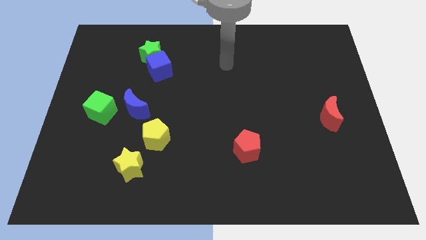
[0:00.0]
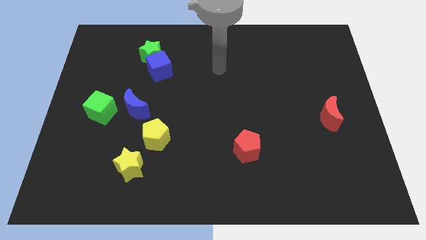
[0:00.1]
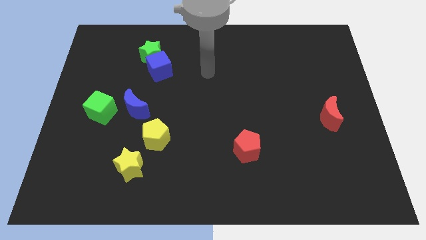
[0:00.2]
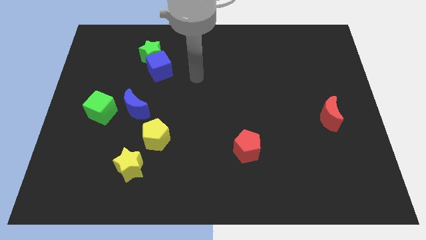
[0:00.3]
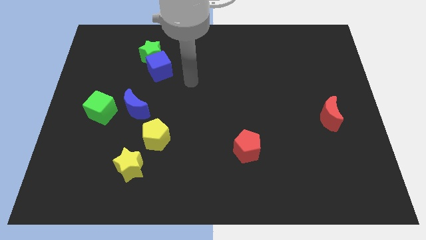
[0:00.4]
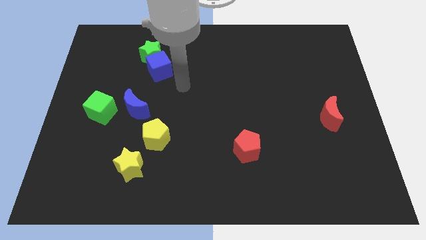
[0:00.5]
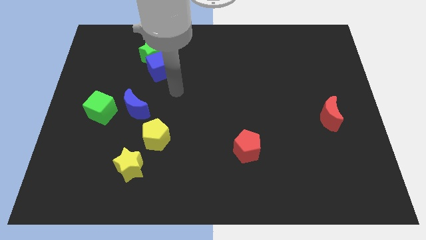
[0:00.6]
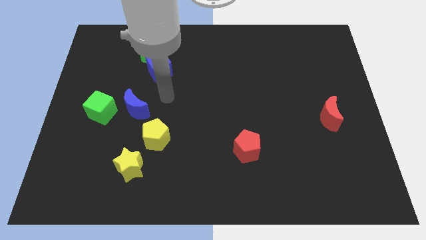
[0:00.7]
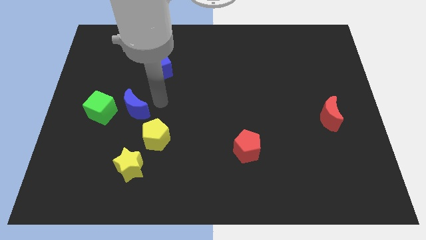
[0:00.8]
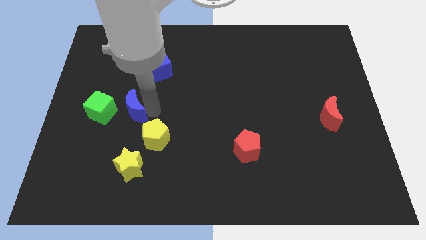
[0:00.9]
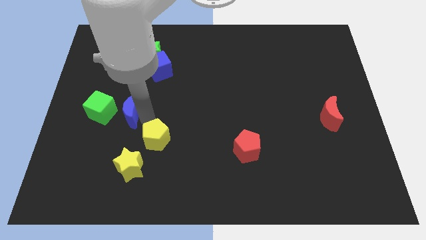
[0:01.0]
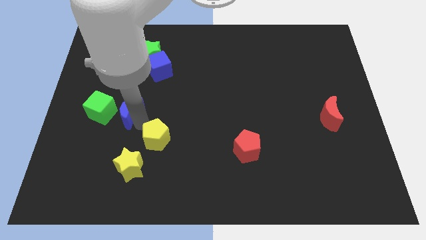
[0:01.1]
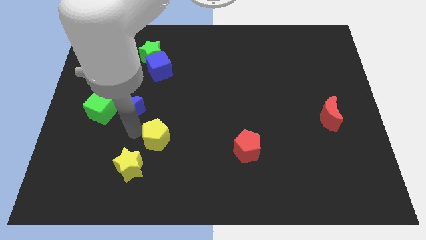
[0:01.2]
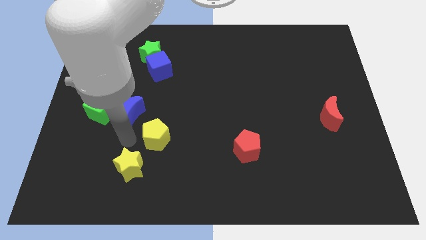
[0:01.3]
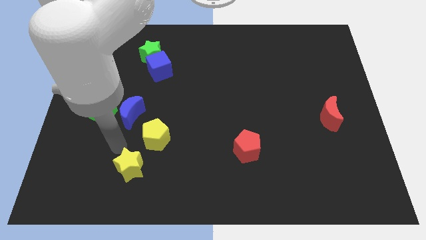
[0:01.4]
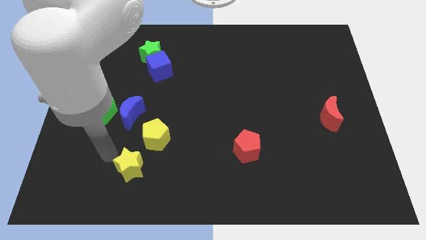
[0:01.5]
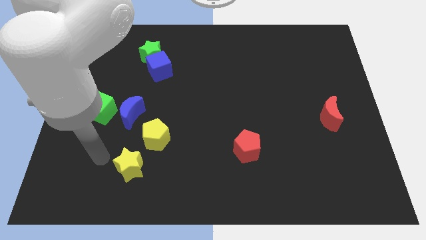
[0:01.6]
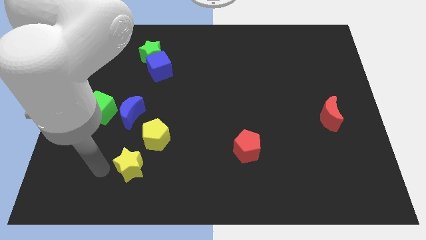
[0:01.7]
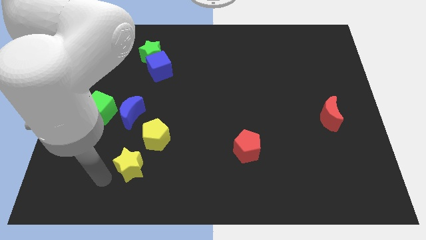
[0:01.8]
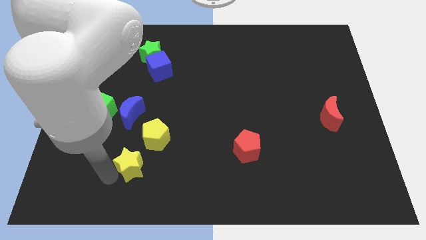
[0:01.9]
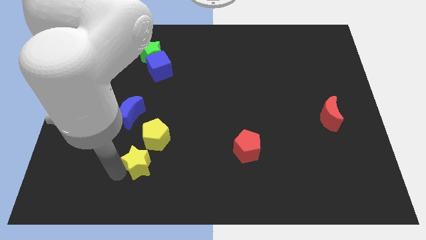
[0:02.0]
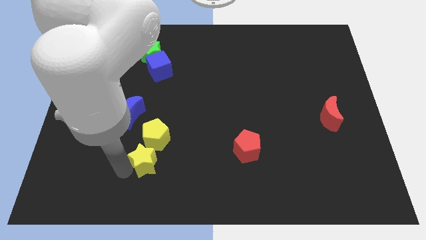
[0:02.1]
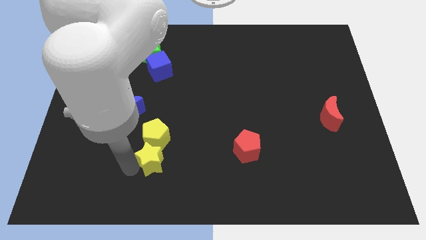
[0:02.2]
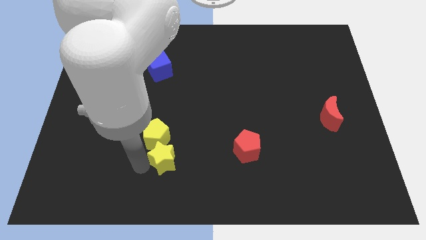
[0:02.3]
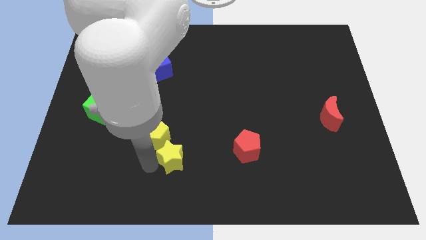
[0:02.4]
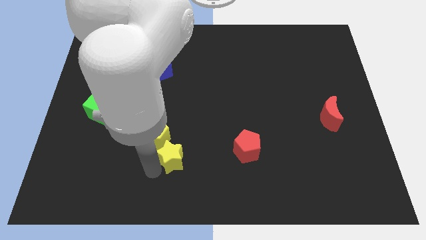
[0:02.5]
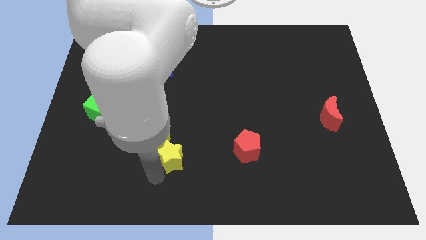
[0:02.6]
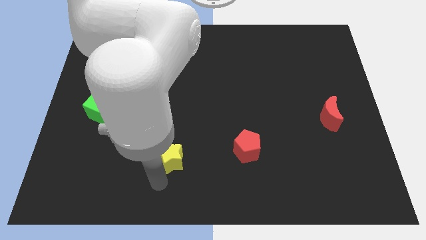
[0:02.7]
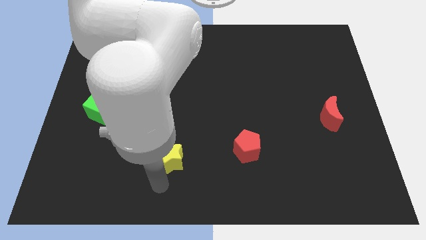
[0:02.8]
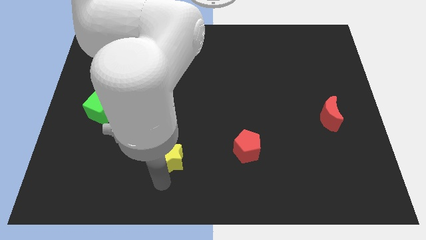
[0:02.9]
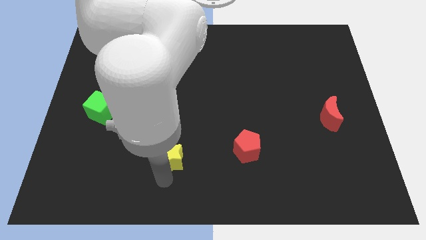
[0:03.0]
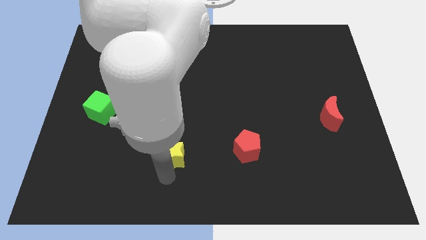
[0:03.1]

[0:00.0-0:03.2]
move the yellow star upwards and to the right diagonally a little

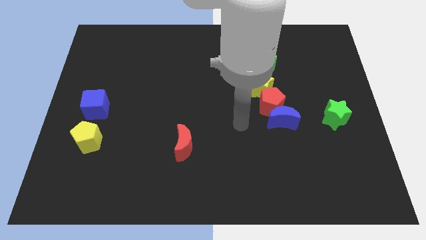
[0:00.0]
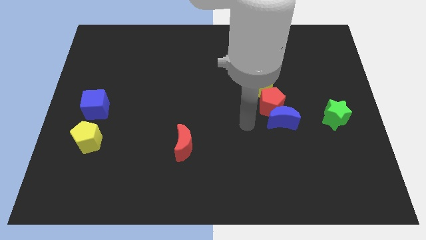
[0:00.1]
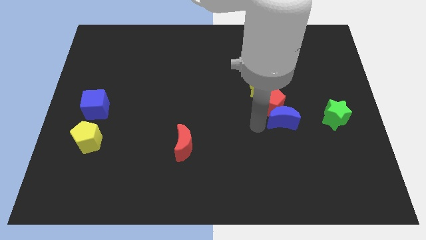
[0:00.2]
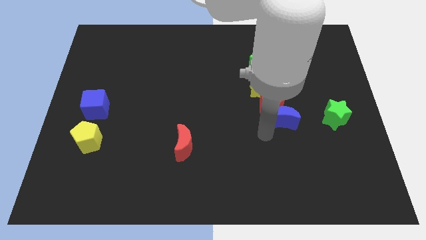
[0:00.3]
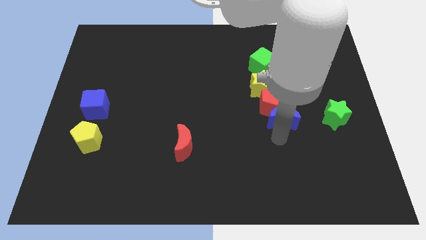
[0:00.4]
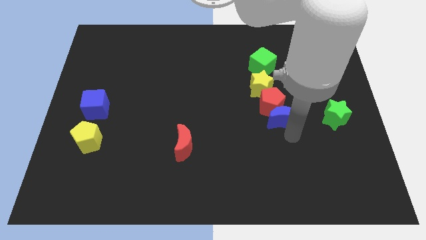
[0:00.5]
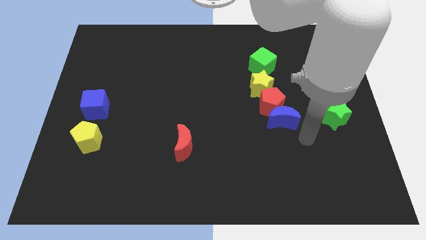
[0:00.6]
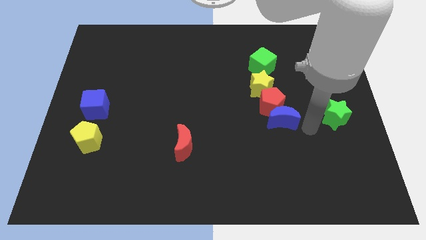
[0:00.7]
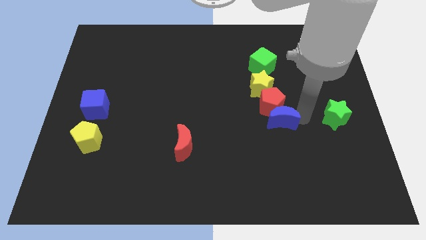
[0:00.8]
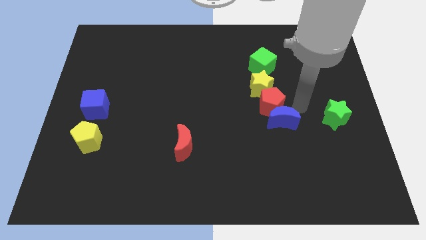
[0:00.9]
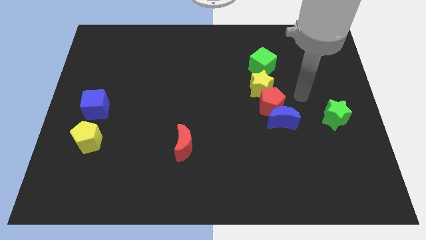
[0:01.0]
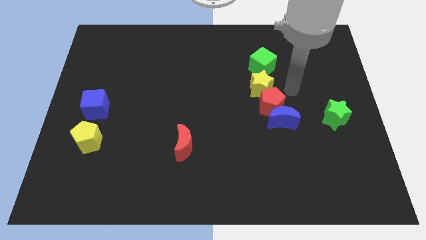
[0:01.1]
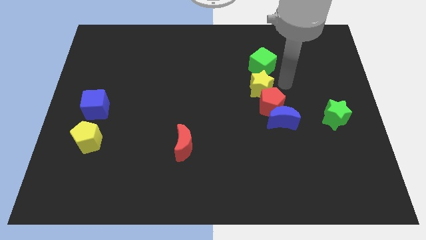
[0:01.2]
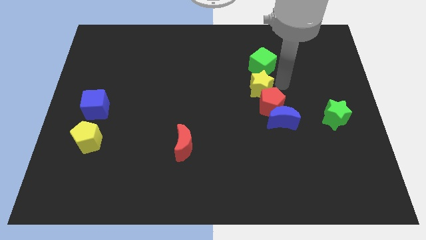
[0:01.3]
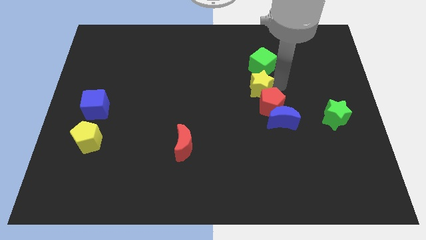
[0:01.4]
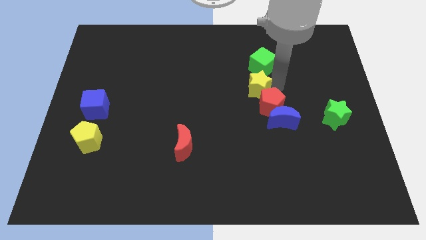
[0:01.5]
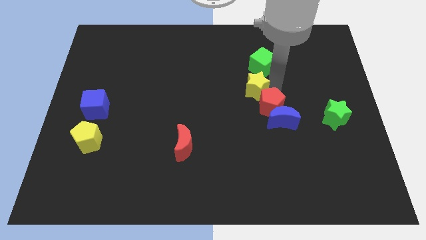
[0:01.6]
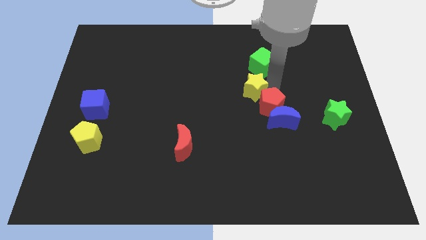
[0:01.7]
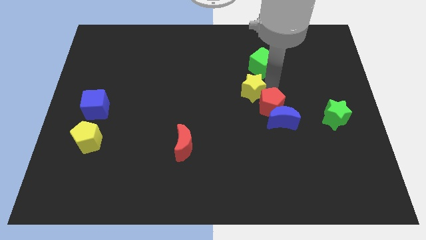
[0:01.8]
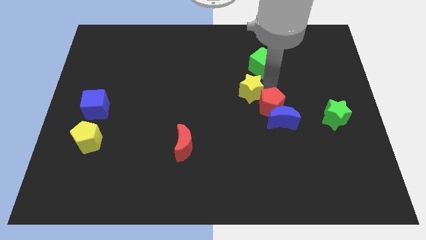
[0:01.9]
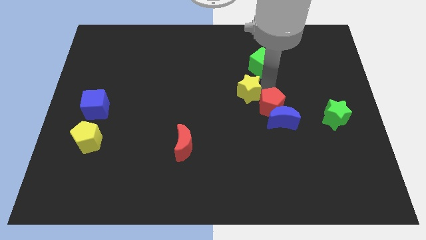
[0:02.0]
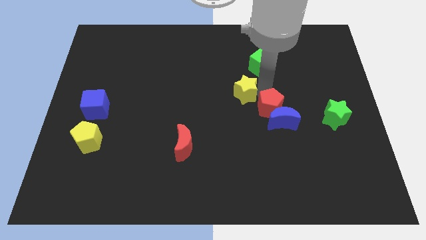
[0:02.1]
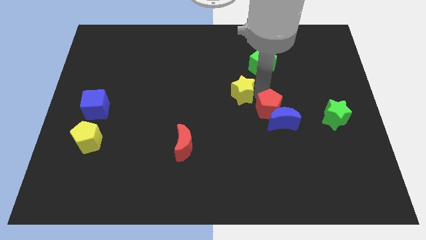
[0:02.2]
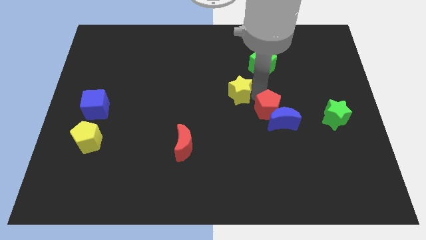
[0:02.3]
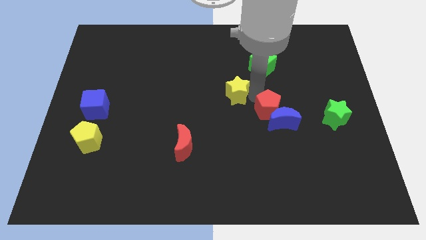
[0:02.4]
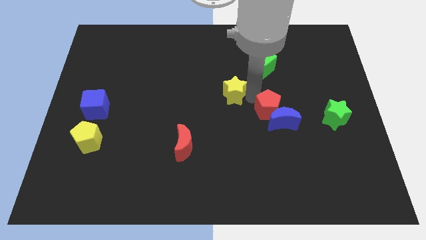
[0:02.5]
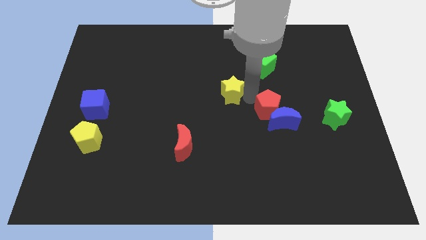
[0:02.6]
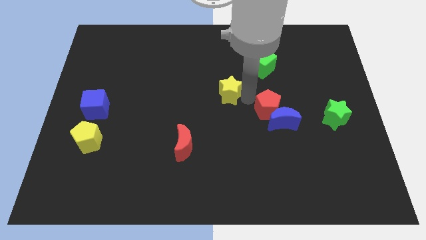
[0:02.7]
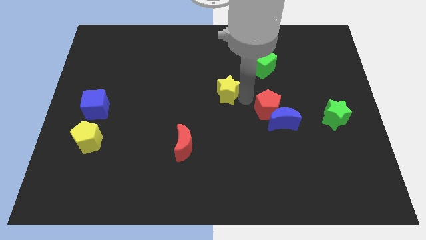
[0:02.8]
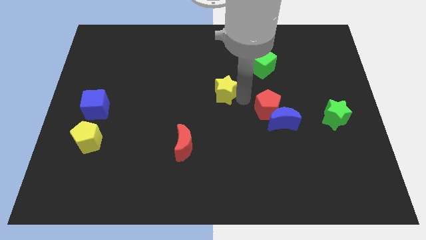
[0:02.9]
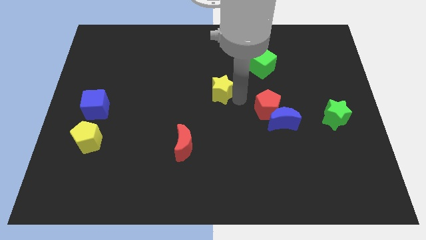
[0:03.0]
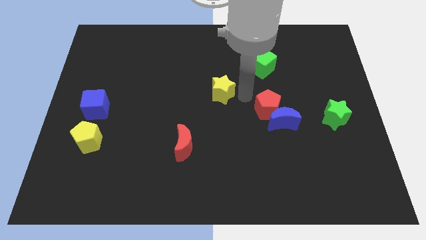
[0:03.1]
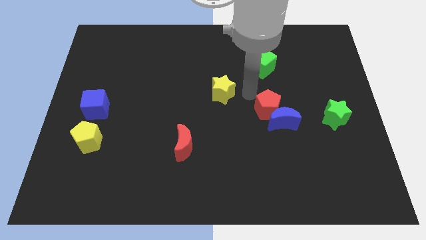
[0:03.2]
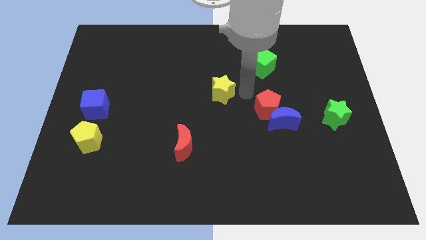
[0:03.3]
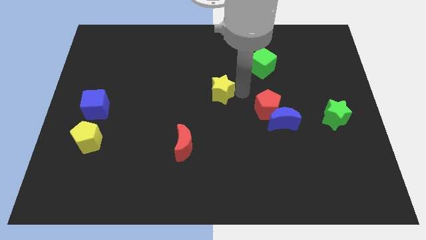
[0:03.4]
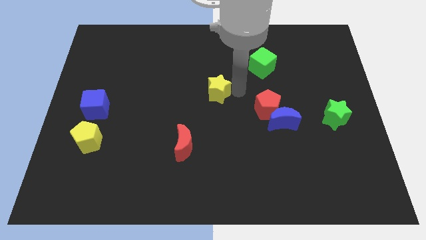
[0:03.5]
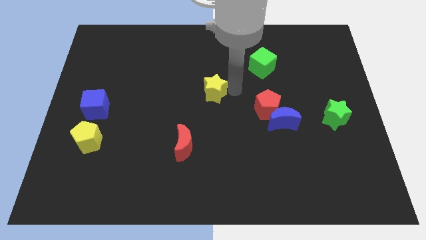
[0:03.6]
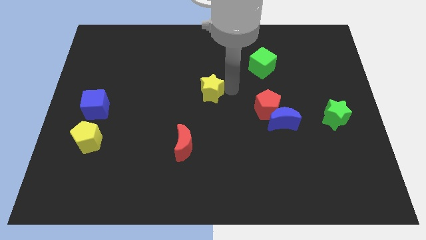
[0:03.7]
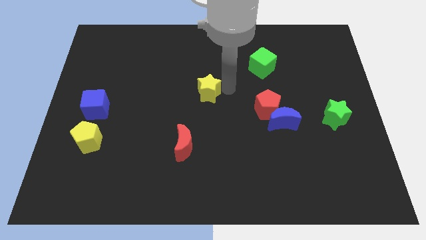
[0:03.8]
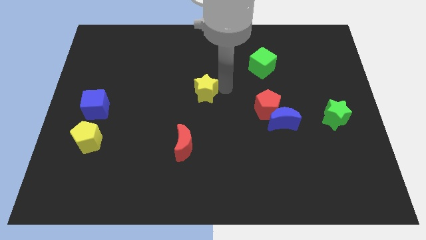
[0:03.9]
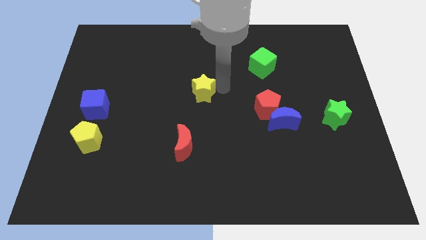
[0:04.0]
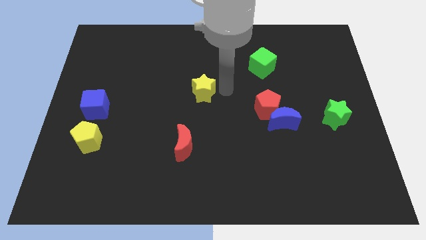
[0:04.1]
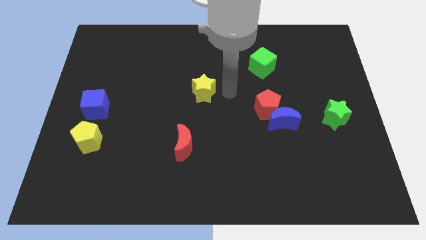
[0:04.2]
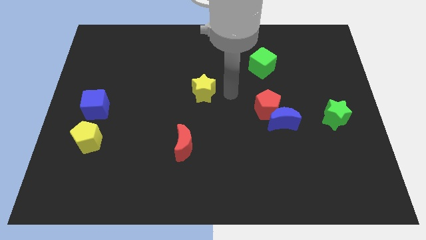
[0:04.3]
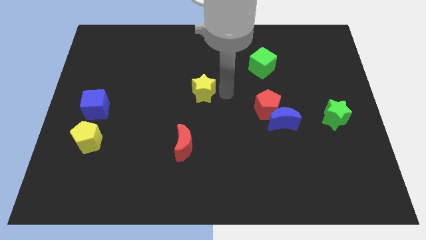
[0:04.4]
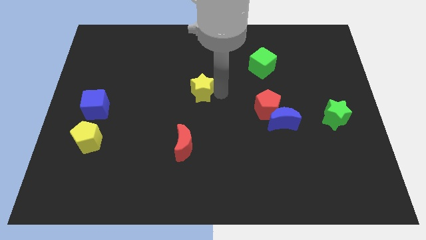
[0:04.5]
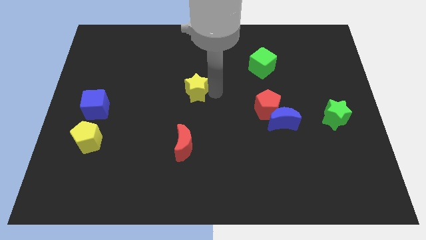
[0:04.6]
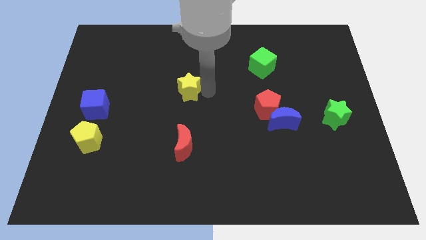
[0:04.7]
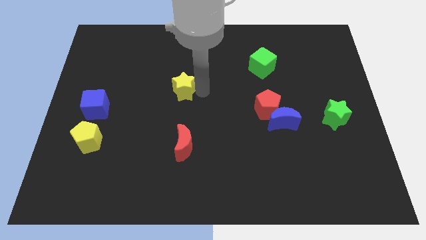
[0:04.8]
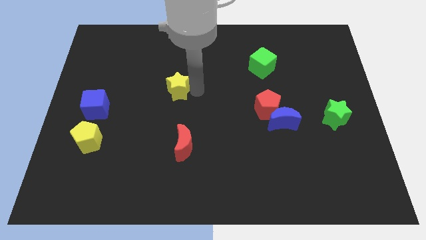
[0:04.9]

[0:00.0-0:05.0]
push the yellow star to the left

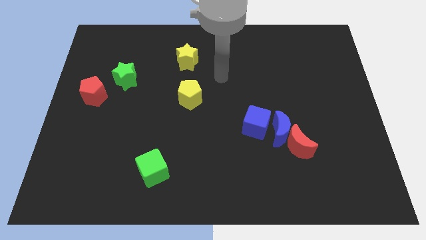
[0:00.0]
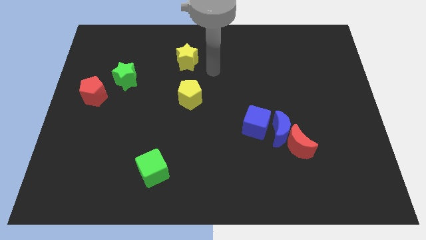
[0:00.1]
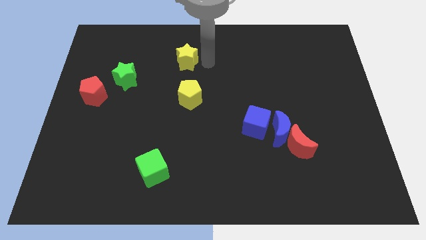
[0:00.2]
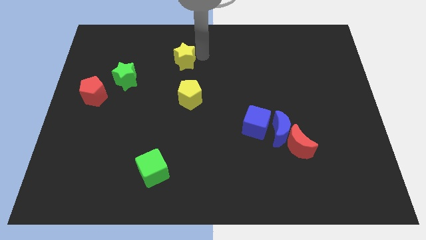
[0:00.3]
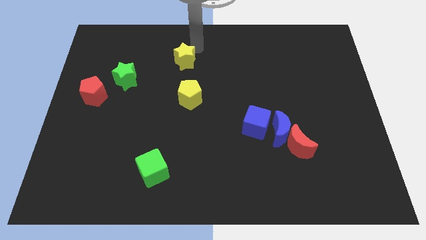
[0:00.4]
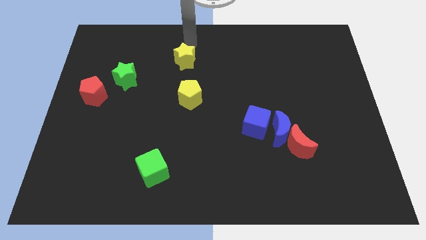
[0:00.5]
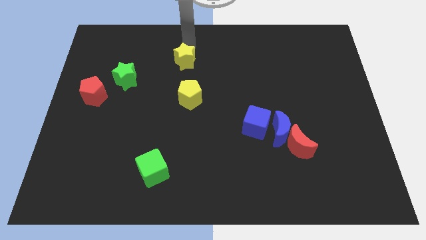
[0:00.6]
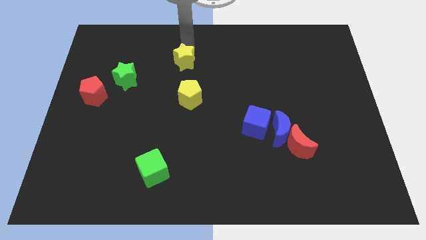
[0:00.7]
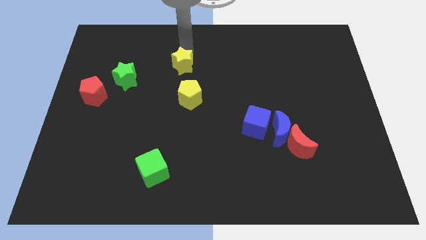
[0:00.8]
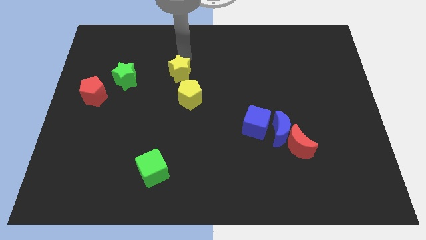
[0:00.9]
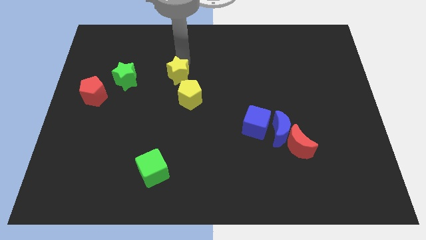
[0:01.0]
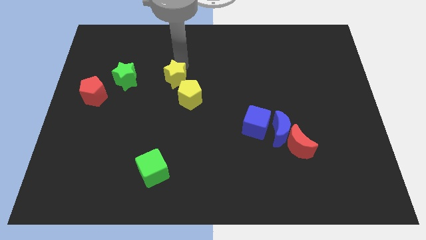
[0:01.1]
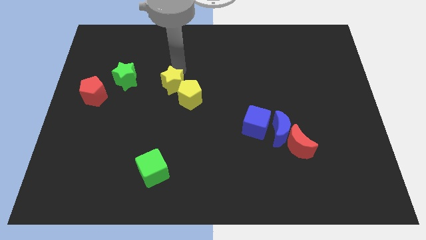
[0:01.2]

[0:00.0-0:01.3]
move the yellow star slightly down
